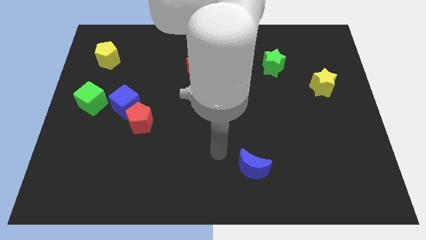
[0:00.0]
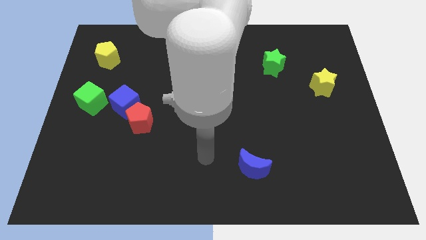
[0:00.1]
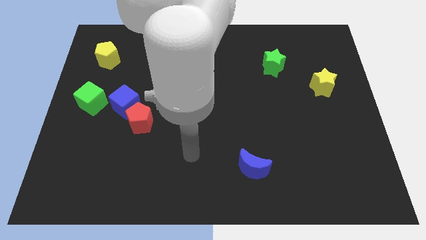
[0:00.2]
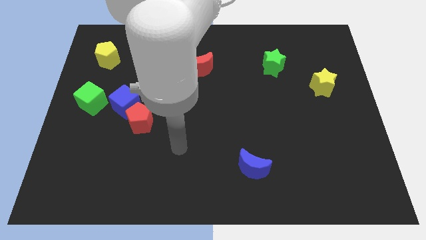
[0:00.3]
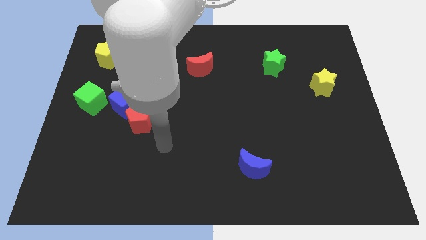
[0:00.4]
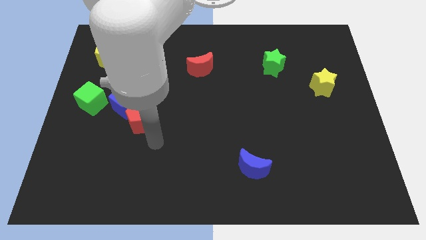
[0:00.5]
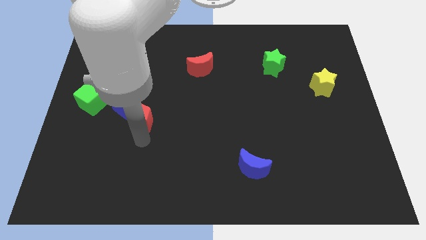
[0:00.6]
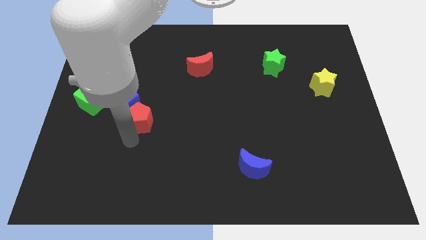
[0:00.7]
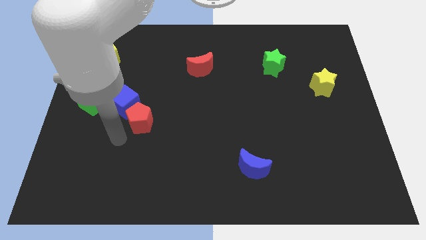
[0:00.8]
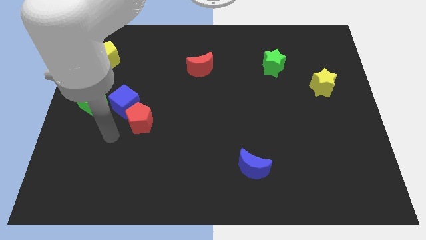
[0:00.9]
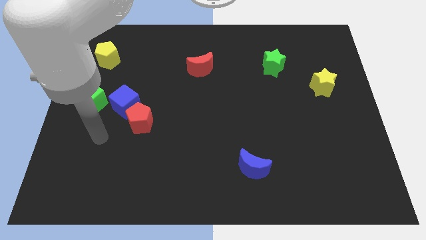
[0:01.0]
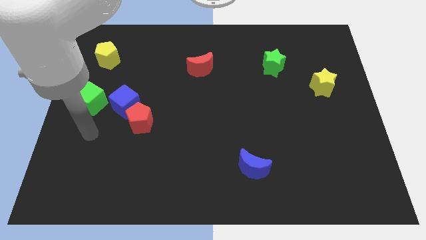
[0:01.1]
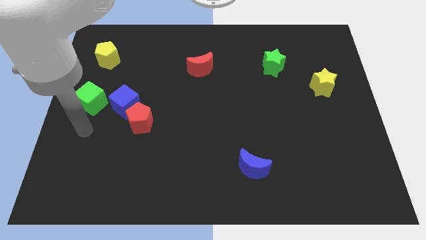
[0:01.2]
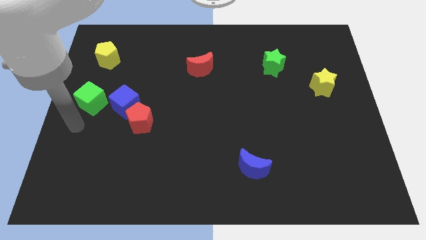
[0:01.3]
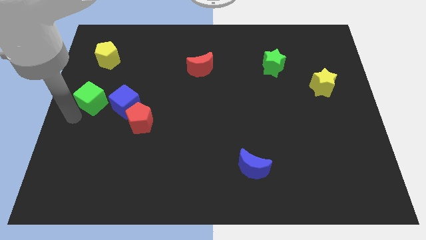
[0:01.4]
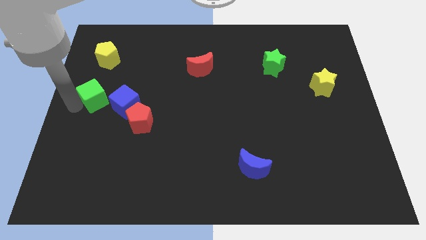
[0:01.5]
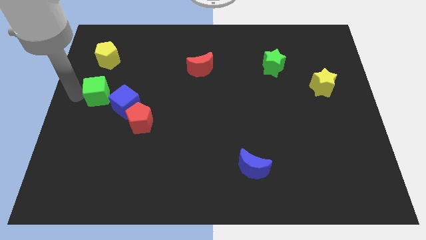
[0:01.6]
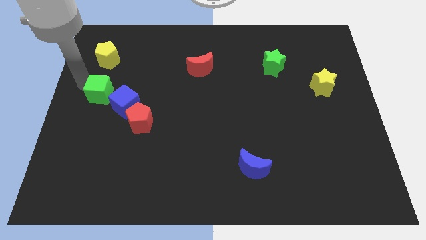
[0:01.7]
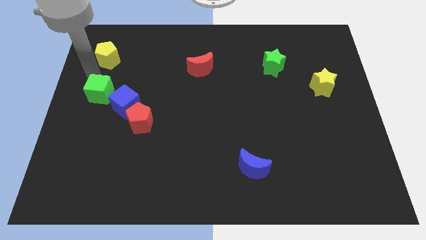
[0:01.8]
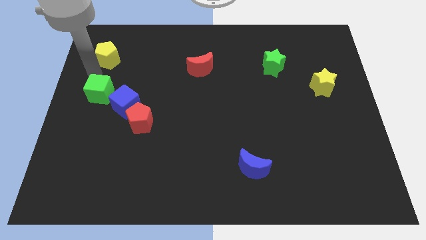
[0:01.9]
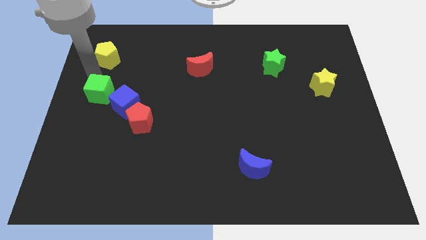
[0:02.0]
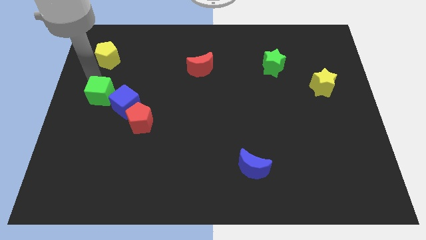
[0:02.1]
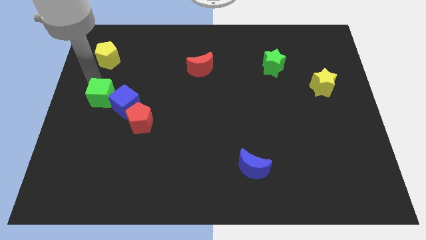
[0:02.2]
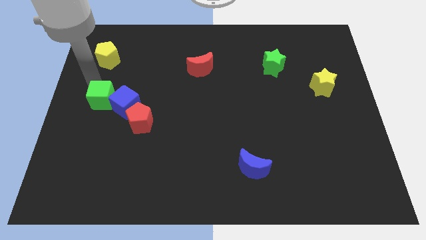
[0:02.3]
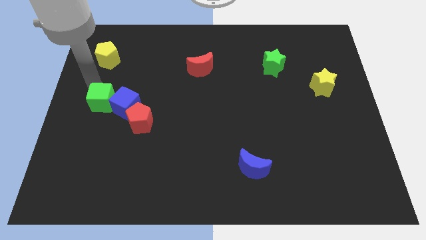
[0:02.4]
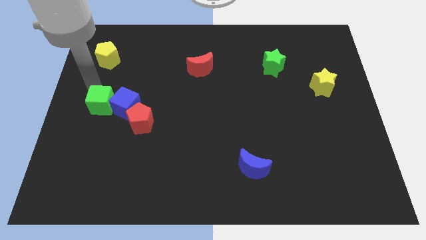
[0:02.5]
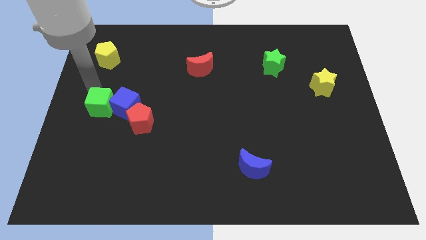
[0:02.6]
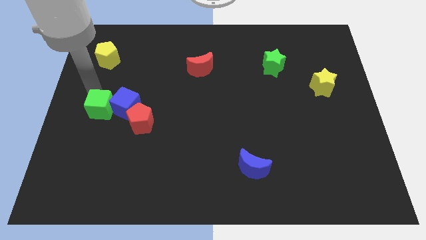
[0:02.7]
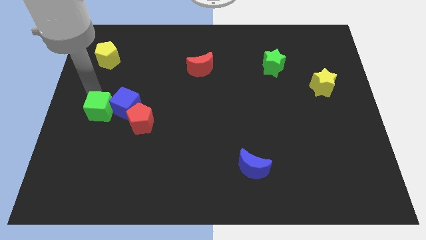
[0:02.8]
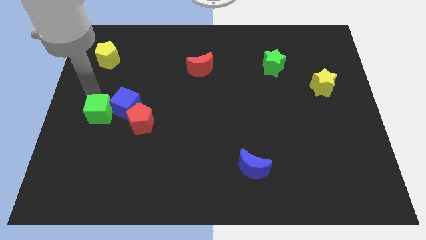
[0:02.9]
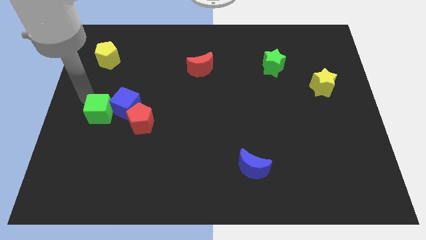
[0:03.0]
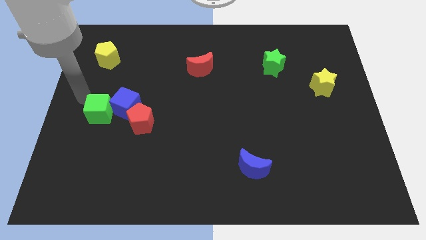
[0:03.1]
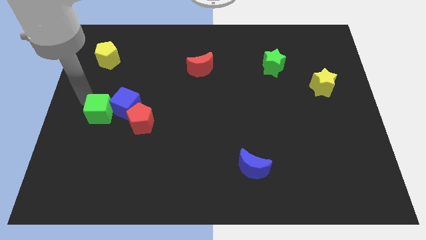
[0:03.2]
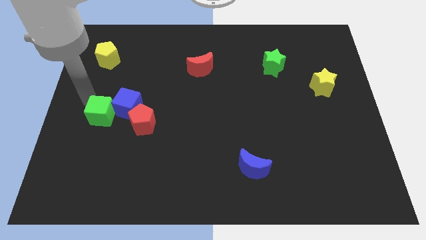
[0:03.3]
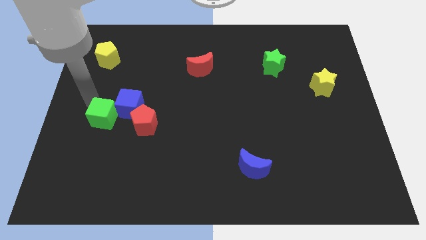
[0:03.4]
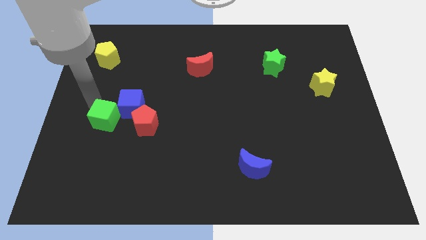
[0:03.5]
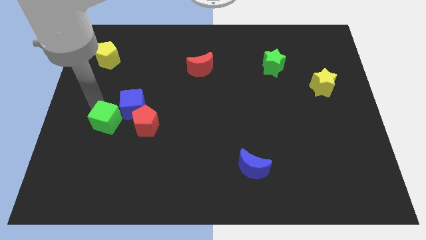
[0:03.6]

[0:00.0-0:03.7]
move the green cube a little down and then to the right

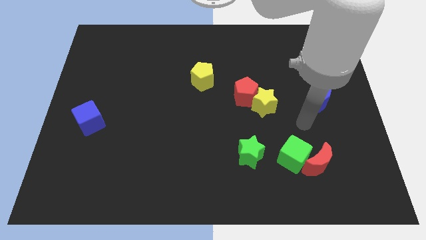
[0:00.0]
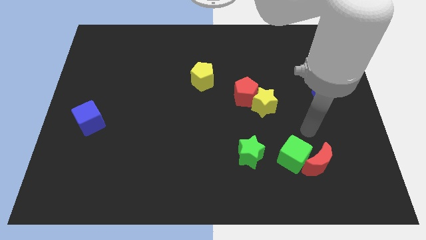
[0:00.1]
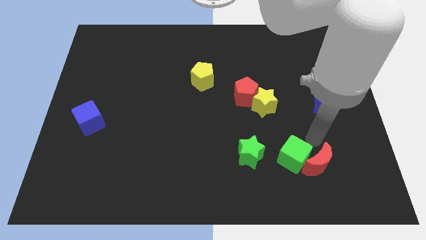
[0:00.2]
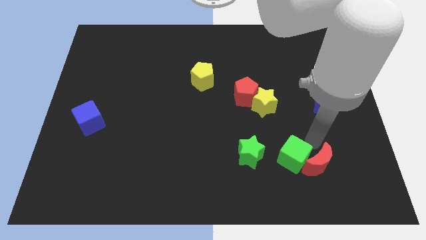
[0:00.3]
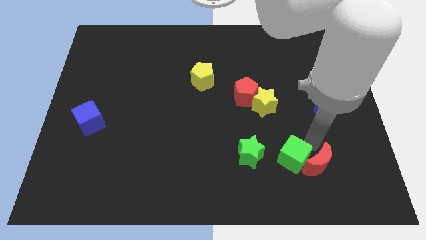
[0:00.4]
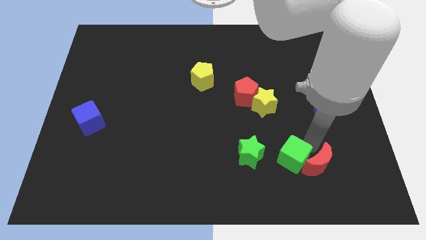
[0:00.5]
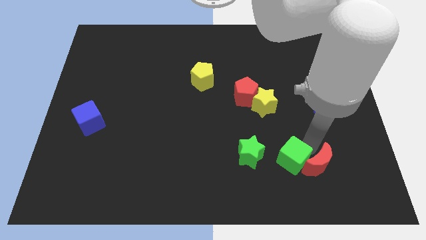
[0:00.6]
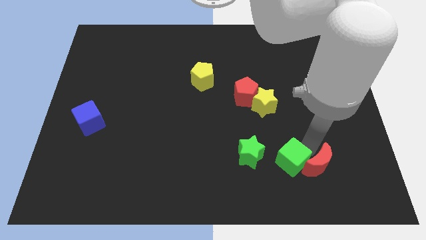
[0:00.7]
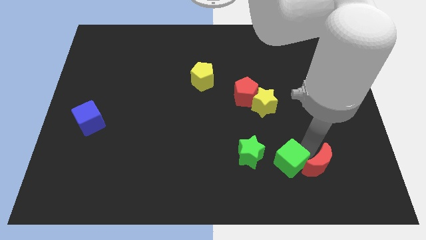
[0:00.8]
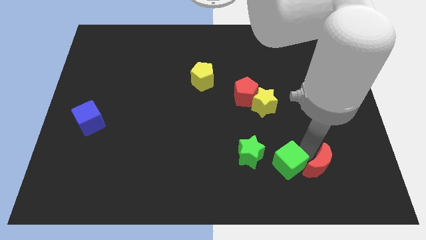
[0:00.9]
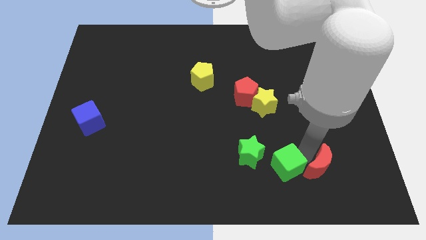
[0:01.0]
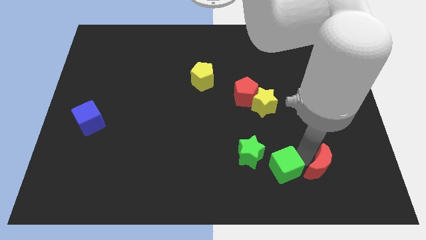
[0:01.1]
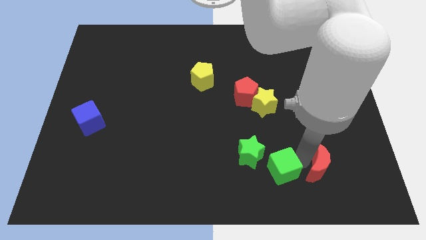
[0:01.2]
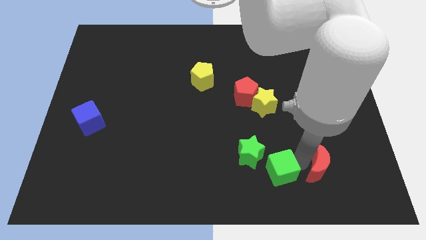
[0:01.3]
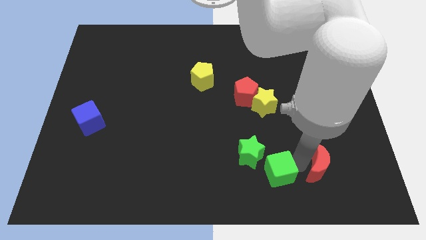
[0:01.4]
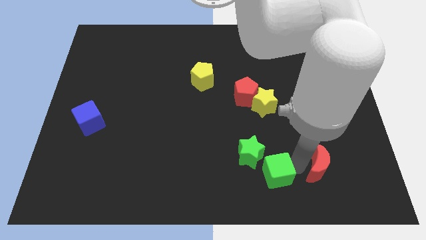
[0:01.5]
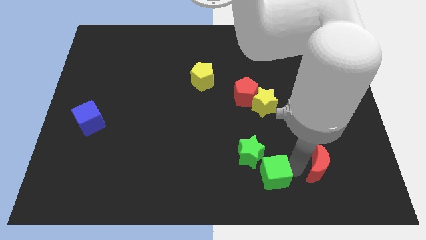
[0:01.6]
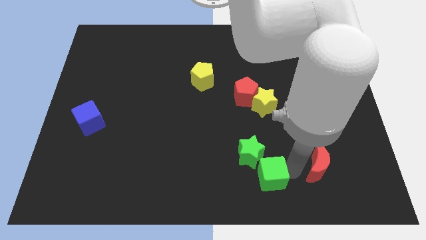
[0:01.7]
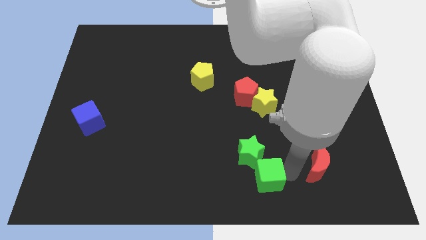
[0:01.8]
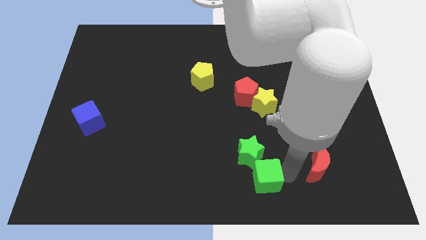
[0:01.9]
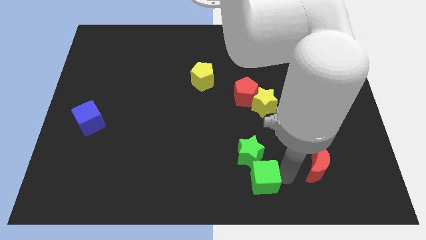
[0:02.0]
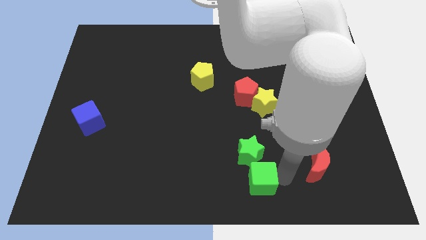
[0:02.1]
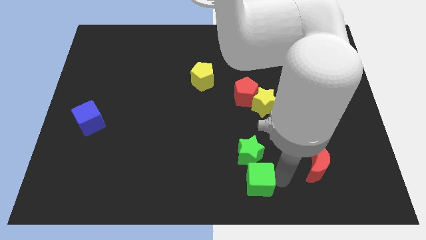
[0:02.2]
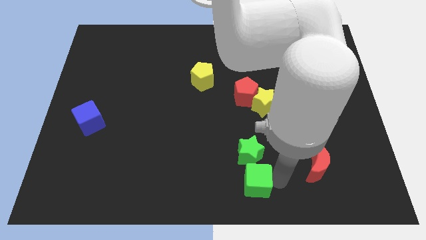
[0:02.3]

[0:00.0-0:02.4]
push the green cube to the left a little bit

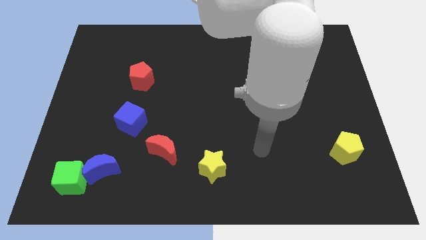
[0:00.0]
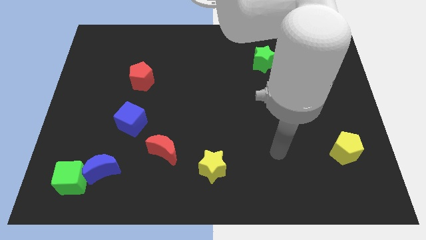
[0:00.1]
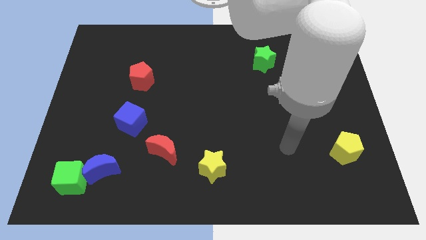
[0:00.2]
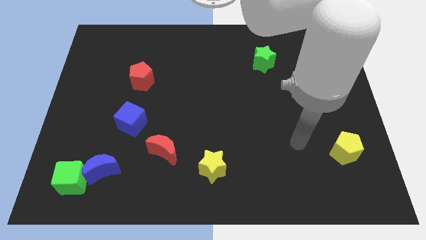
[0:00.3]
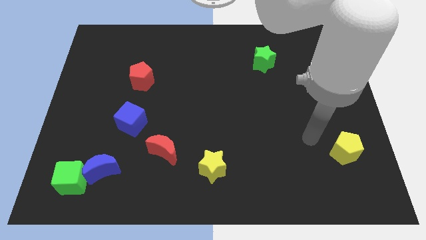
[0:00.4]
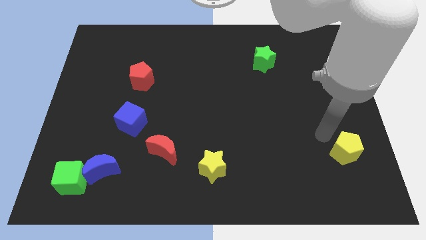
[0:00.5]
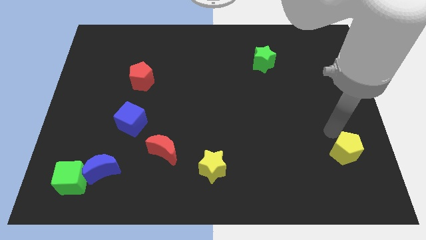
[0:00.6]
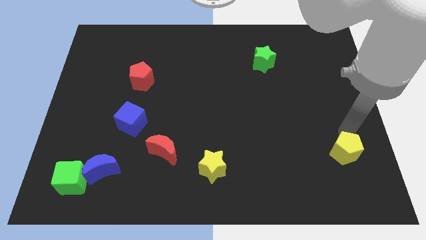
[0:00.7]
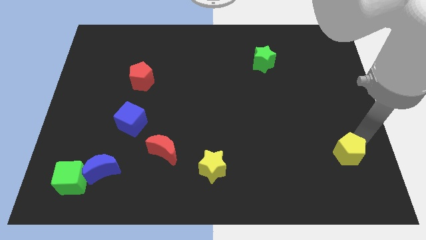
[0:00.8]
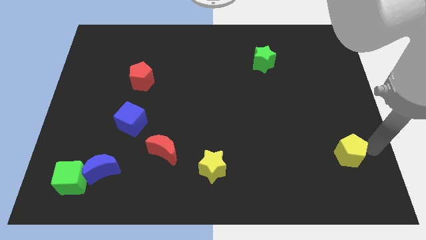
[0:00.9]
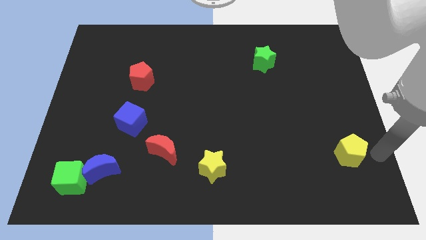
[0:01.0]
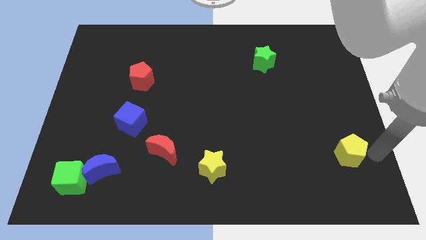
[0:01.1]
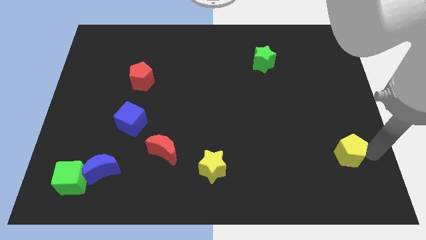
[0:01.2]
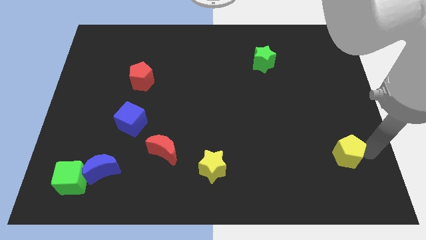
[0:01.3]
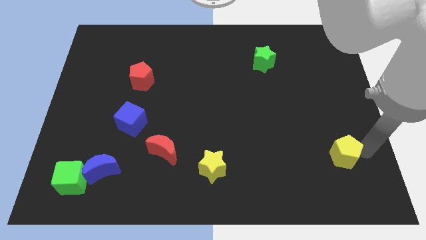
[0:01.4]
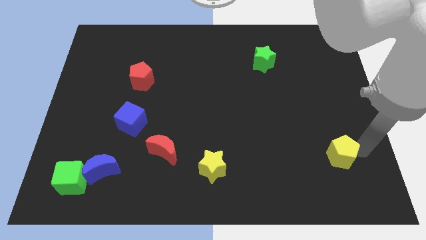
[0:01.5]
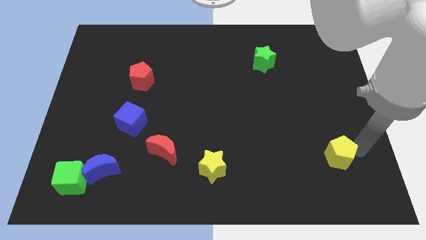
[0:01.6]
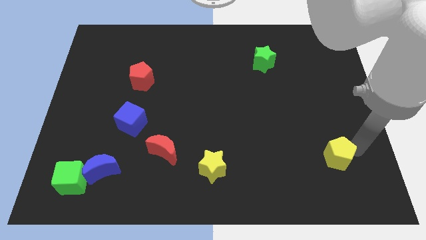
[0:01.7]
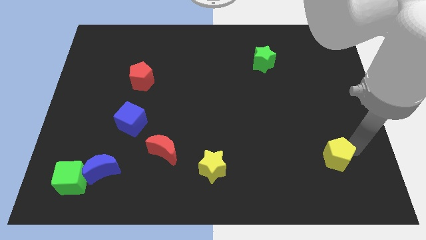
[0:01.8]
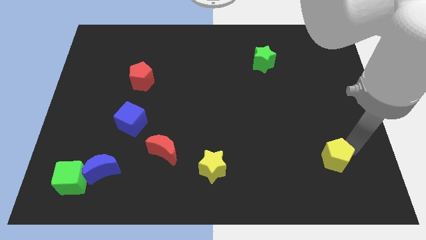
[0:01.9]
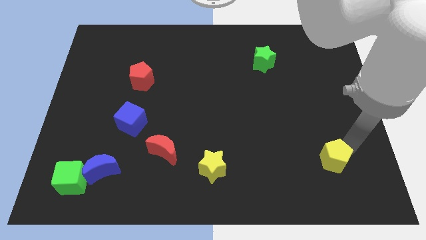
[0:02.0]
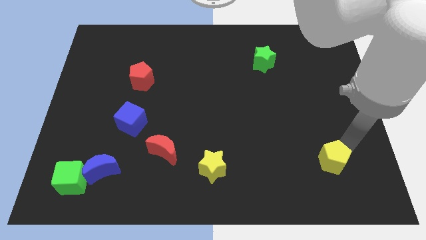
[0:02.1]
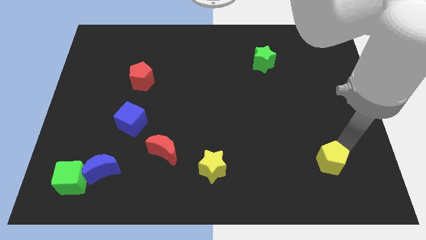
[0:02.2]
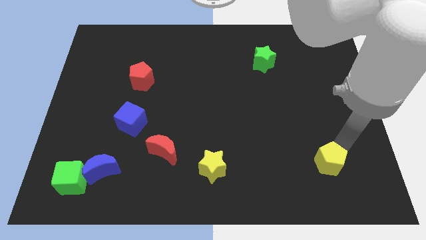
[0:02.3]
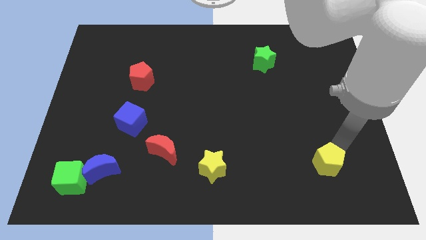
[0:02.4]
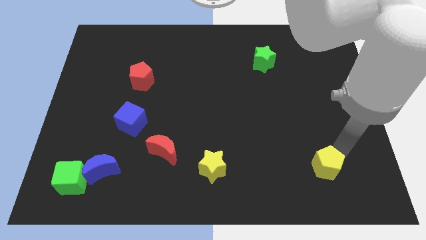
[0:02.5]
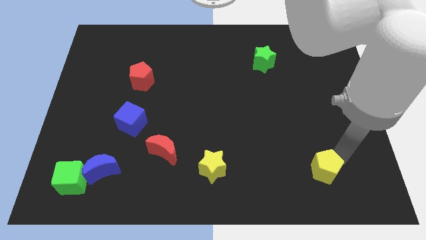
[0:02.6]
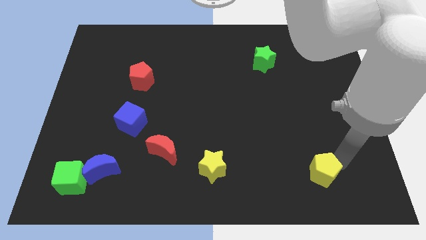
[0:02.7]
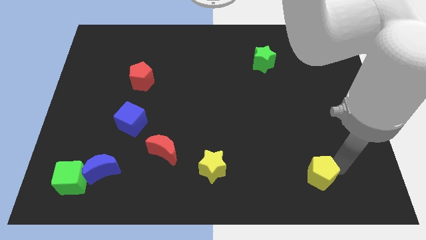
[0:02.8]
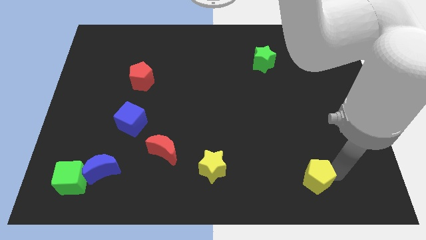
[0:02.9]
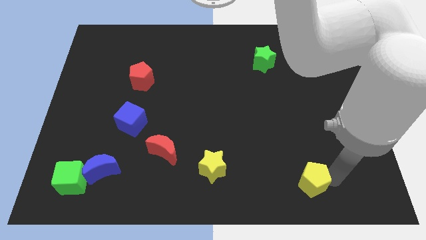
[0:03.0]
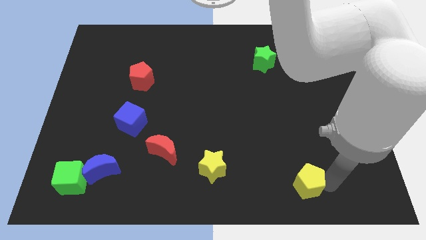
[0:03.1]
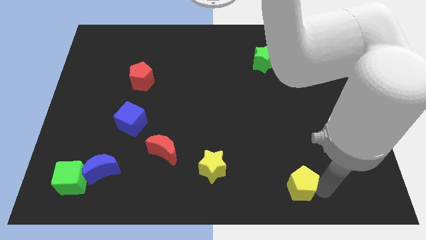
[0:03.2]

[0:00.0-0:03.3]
slightly slide the yellow pentagon to the left
